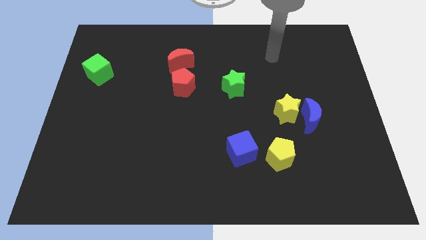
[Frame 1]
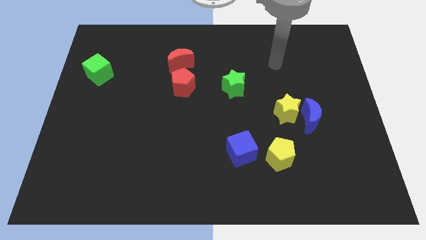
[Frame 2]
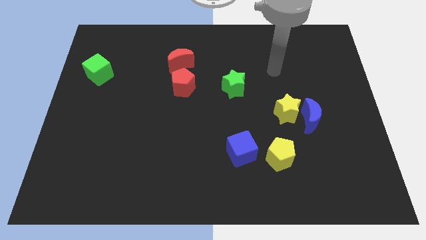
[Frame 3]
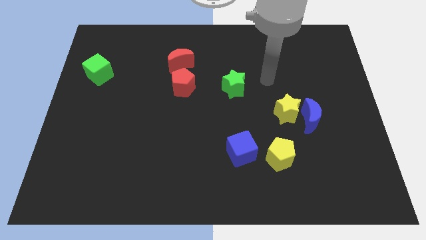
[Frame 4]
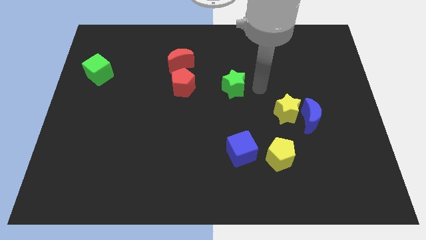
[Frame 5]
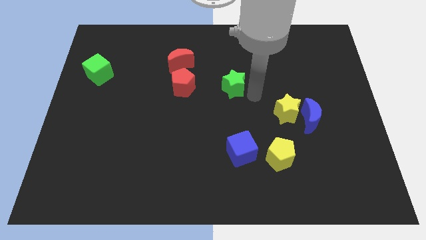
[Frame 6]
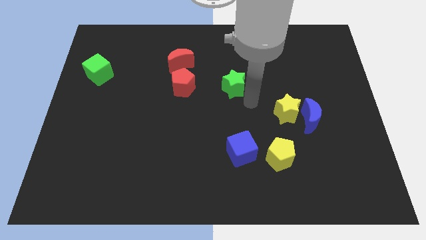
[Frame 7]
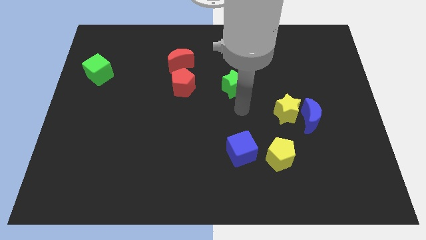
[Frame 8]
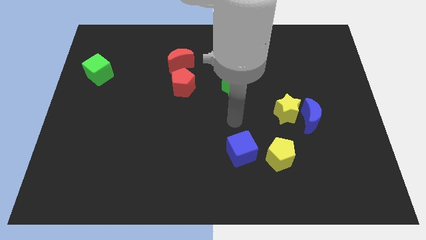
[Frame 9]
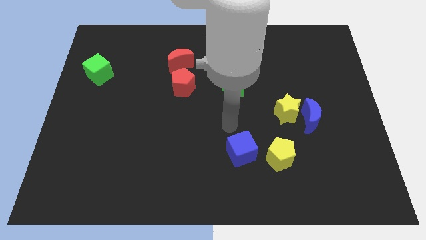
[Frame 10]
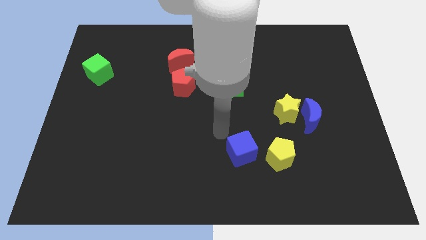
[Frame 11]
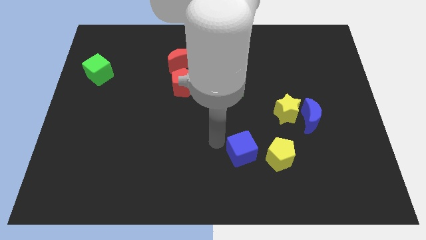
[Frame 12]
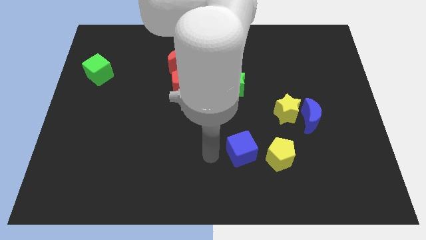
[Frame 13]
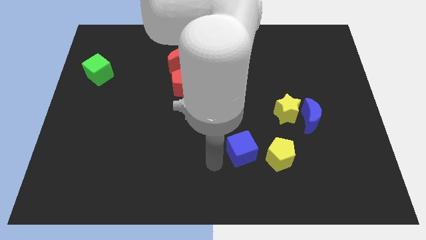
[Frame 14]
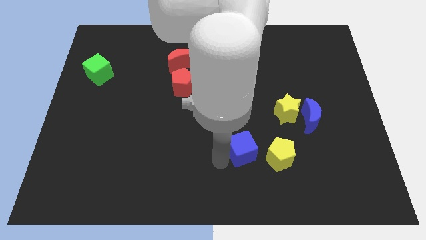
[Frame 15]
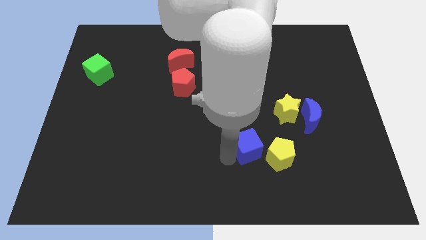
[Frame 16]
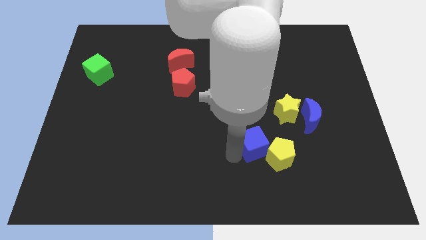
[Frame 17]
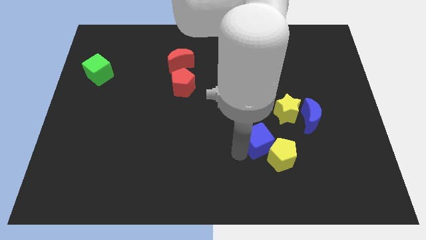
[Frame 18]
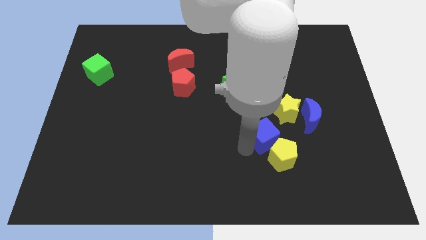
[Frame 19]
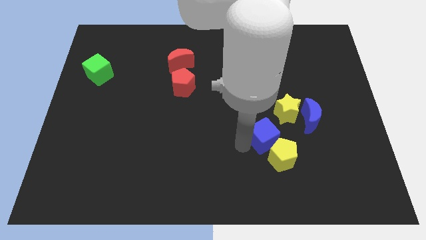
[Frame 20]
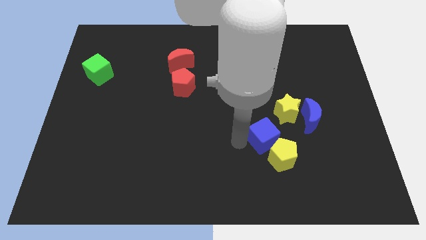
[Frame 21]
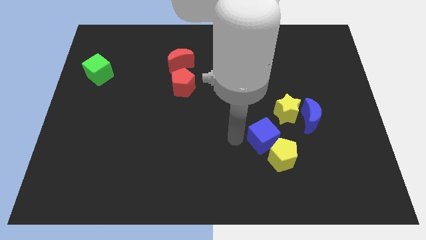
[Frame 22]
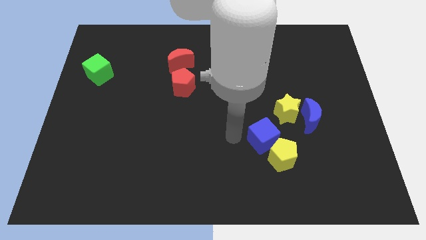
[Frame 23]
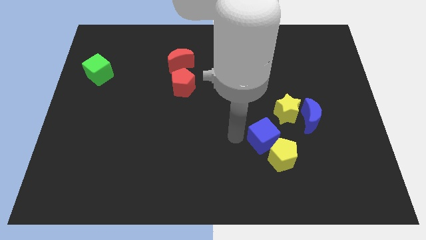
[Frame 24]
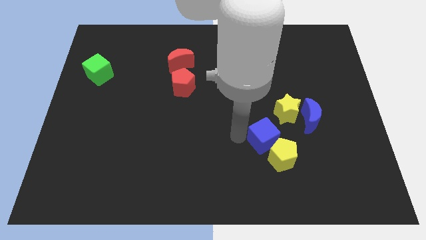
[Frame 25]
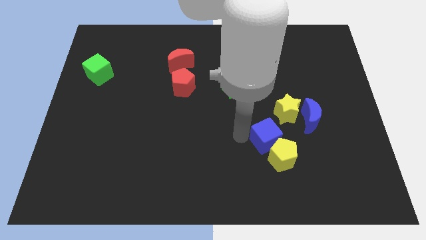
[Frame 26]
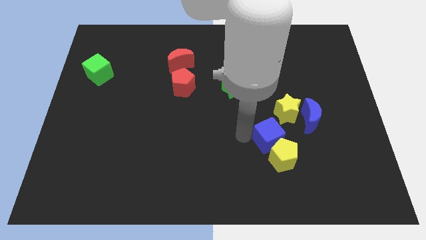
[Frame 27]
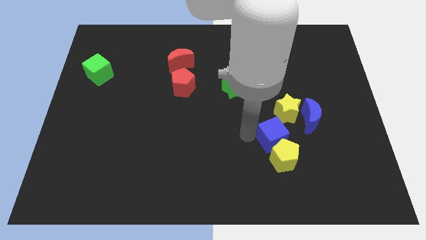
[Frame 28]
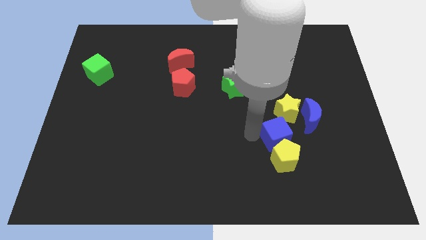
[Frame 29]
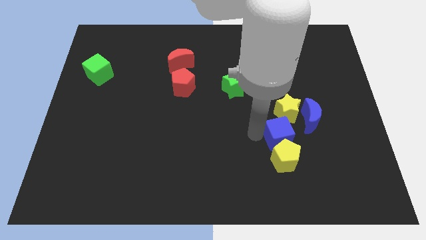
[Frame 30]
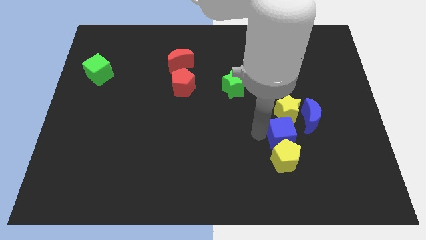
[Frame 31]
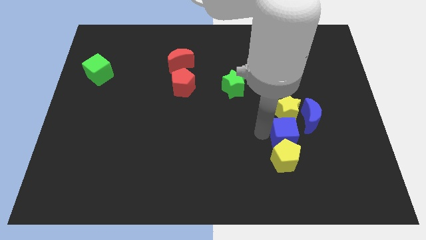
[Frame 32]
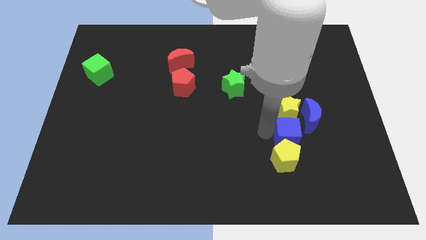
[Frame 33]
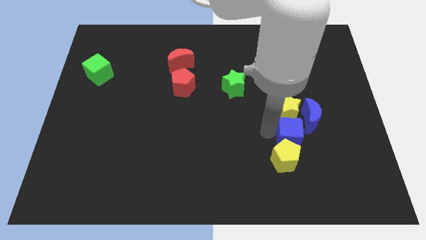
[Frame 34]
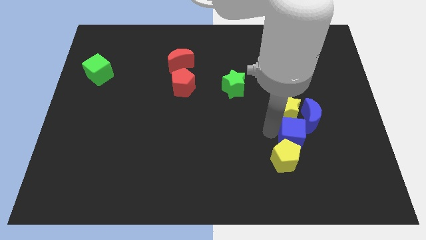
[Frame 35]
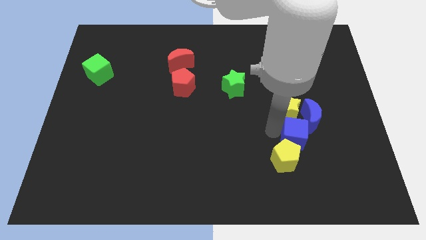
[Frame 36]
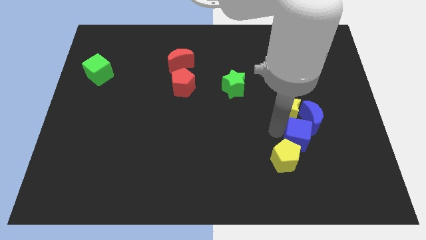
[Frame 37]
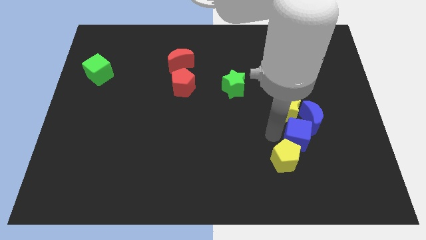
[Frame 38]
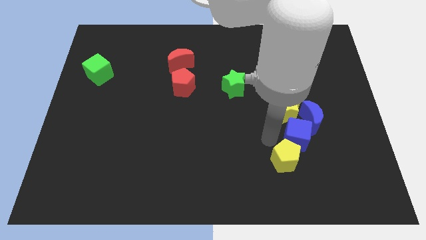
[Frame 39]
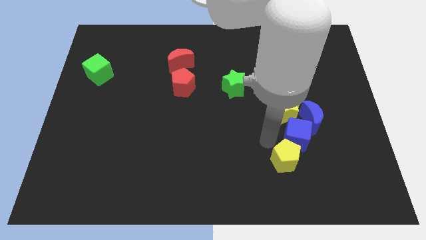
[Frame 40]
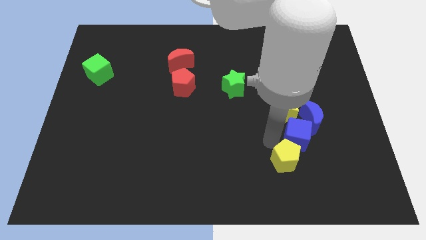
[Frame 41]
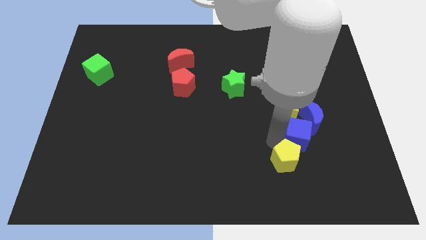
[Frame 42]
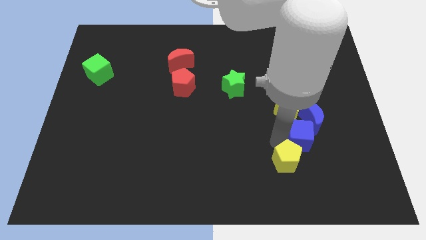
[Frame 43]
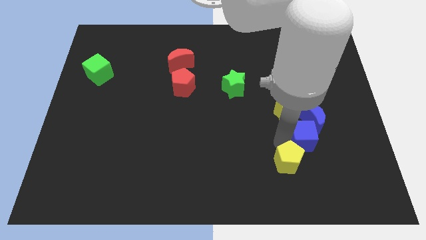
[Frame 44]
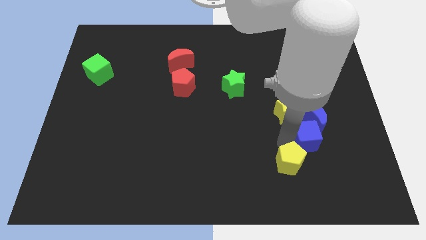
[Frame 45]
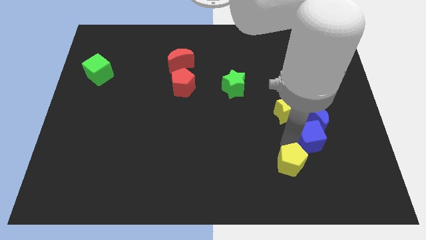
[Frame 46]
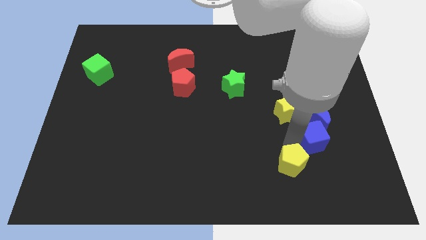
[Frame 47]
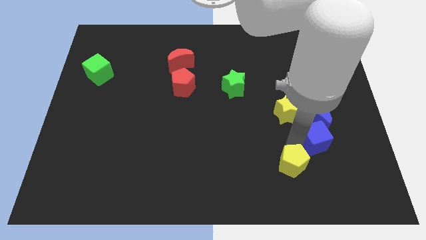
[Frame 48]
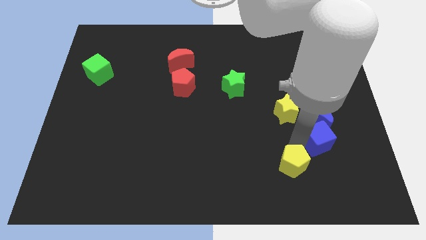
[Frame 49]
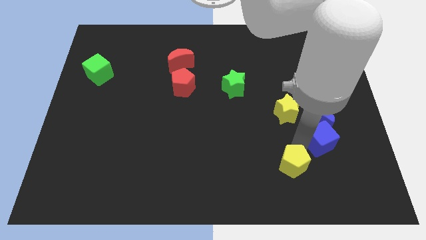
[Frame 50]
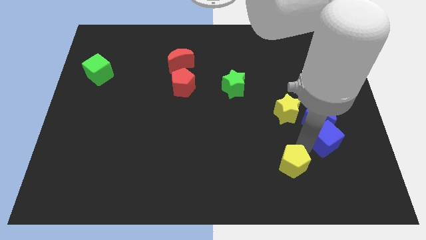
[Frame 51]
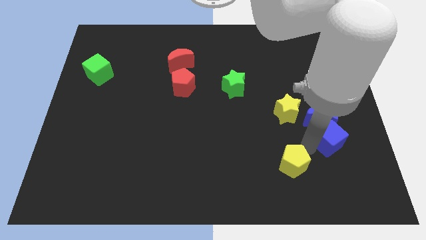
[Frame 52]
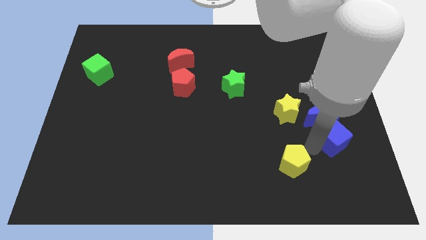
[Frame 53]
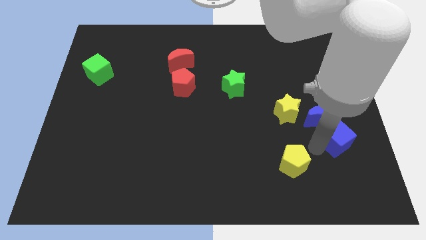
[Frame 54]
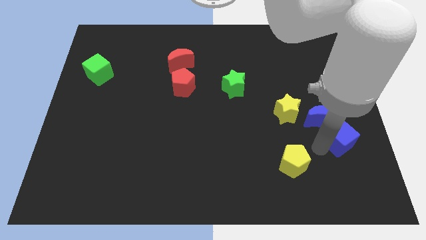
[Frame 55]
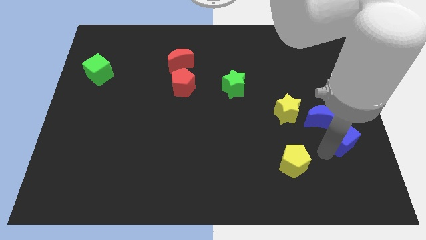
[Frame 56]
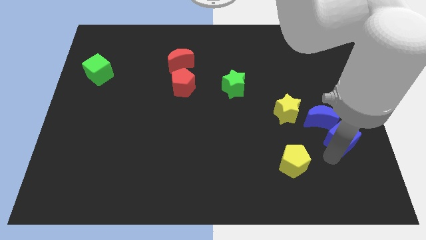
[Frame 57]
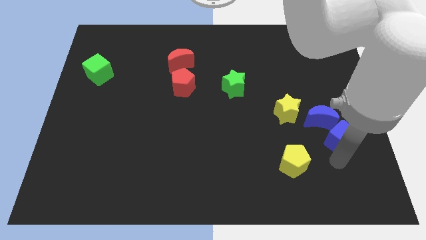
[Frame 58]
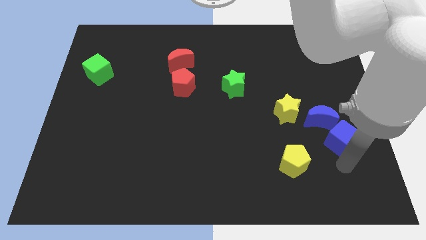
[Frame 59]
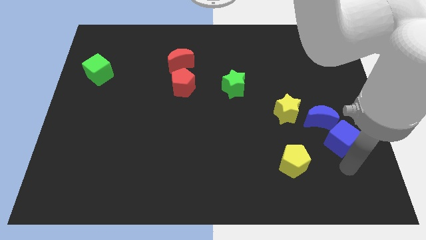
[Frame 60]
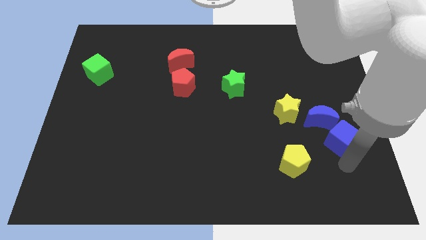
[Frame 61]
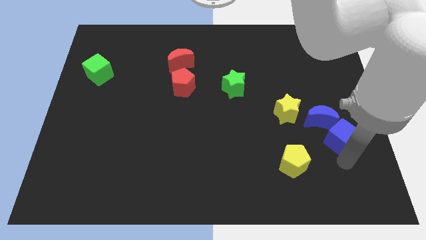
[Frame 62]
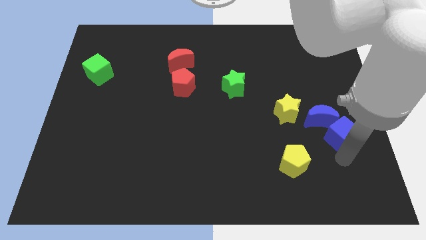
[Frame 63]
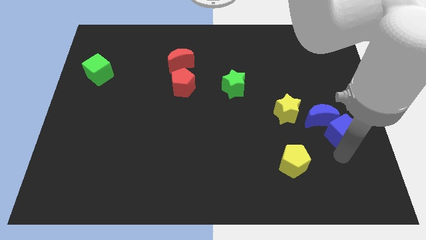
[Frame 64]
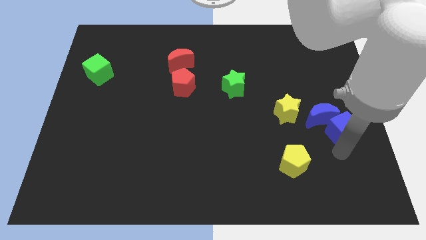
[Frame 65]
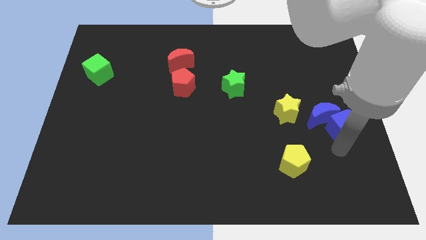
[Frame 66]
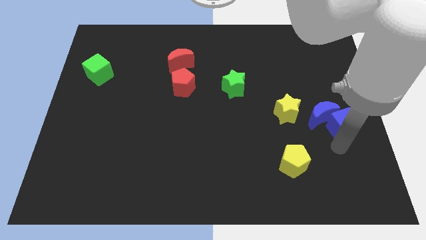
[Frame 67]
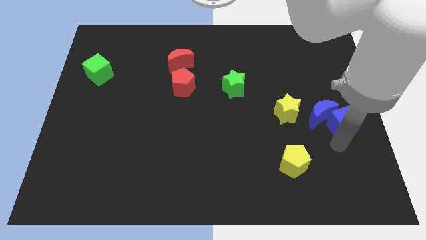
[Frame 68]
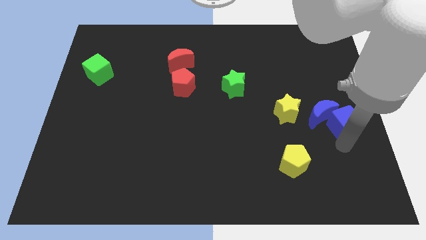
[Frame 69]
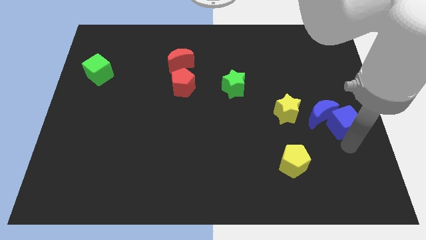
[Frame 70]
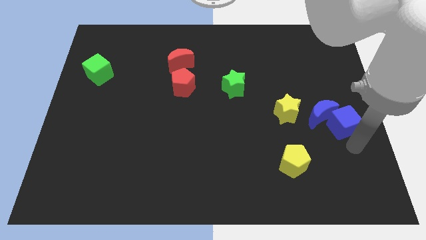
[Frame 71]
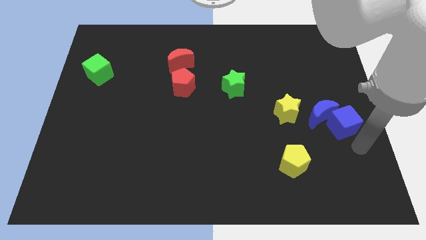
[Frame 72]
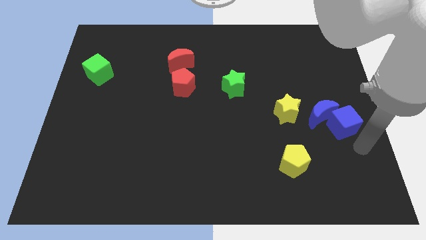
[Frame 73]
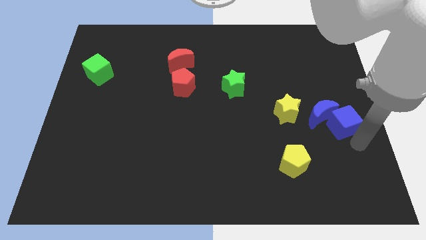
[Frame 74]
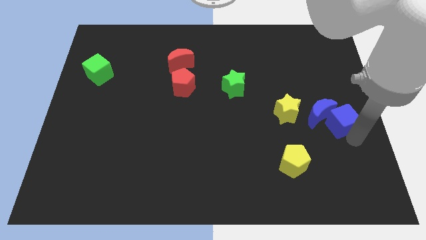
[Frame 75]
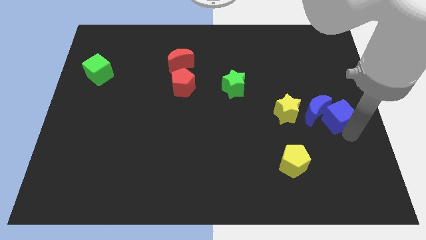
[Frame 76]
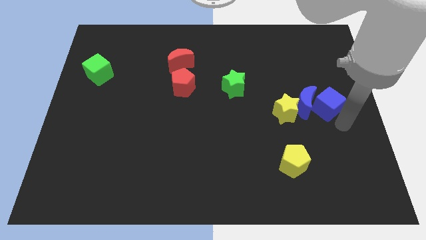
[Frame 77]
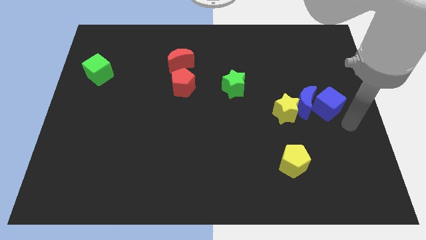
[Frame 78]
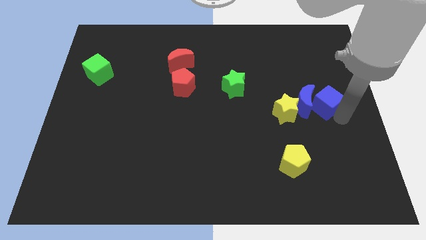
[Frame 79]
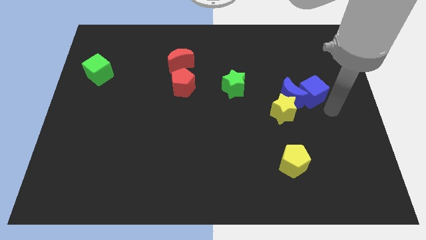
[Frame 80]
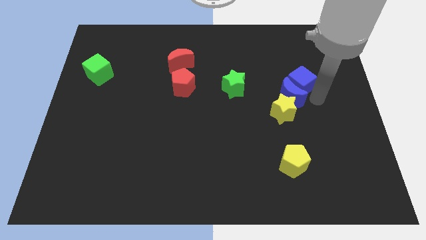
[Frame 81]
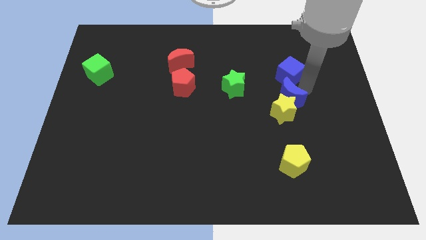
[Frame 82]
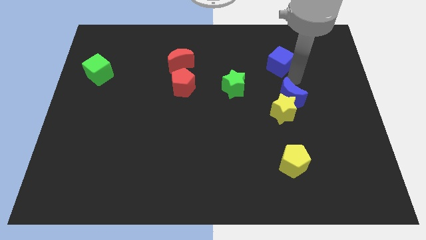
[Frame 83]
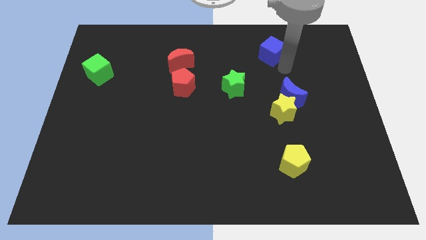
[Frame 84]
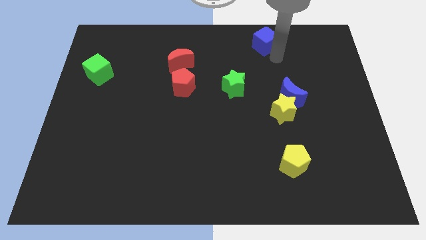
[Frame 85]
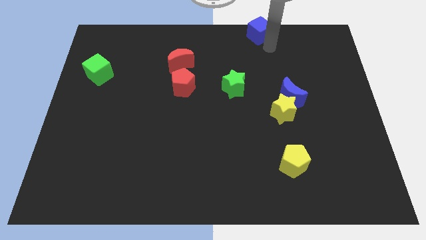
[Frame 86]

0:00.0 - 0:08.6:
put the blue cube to the top side
